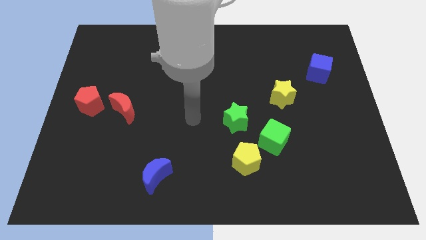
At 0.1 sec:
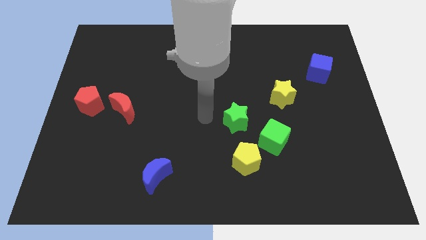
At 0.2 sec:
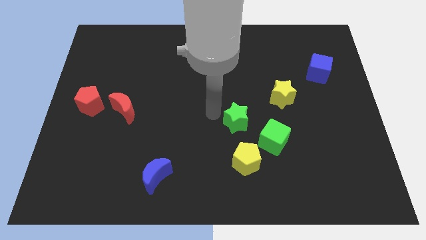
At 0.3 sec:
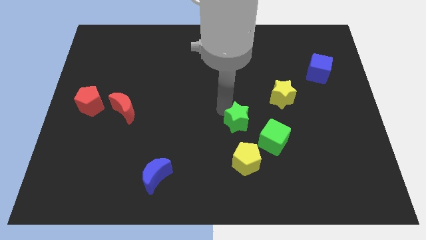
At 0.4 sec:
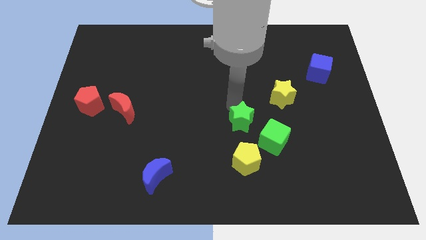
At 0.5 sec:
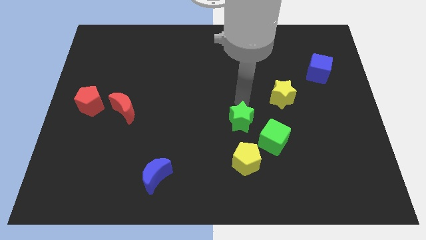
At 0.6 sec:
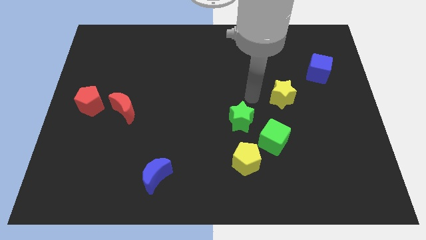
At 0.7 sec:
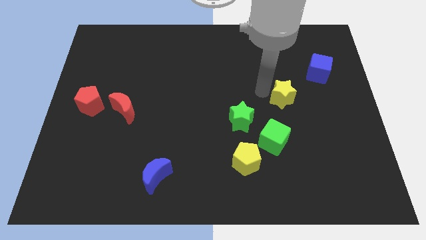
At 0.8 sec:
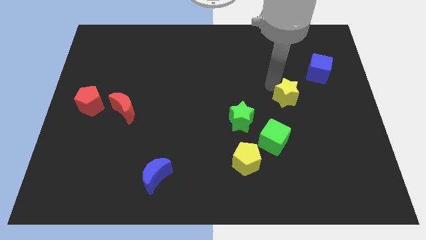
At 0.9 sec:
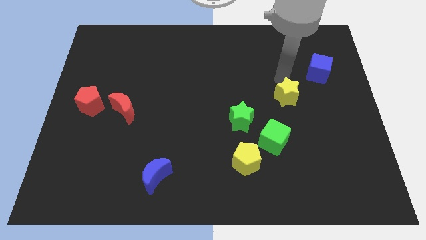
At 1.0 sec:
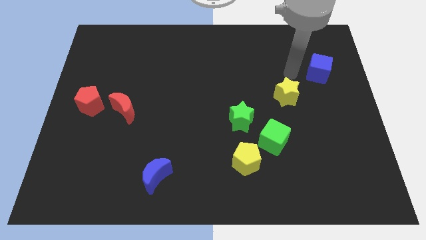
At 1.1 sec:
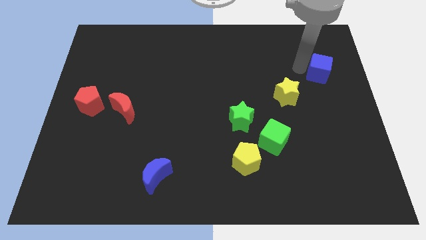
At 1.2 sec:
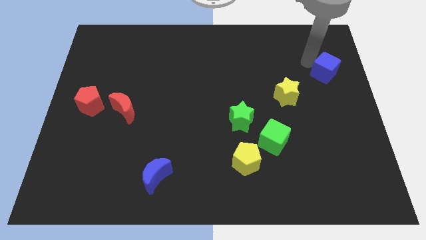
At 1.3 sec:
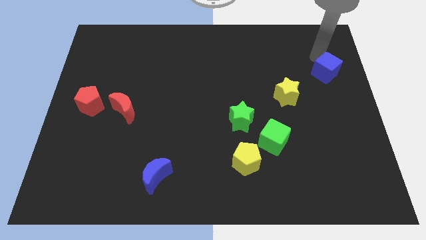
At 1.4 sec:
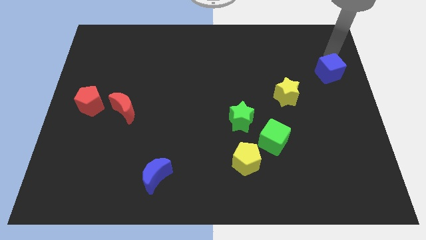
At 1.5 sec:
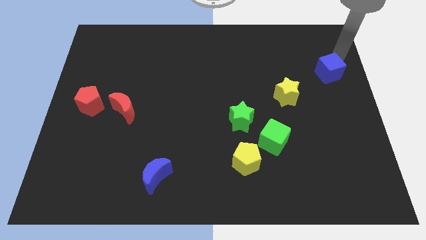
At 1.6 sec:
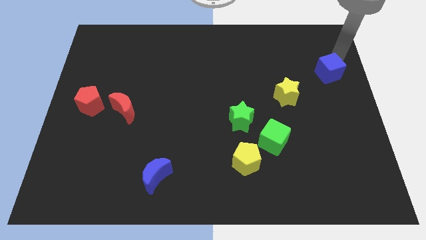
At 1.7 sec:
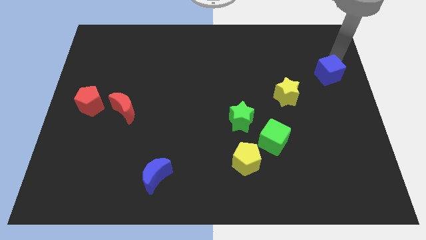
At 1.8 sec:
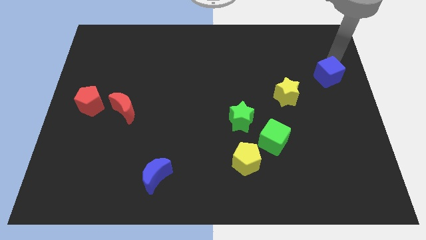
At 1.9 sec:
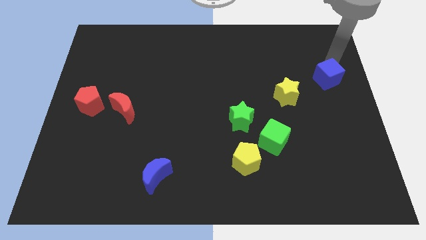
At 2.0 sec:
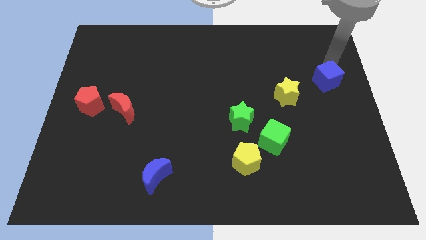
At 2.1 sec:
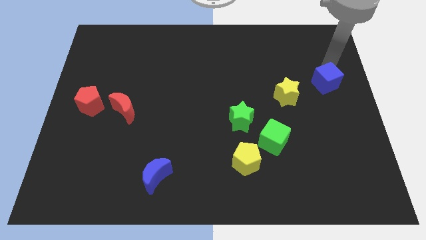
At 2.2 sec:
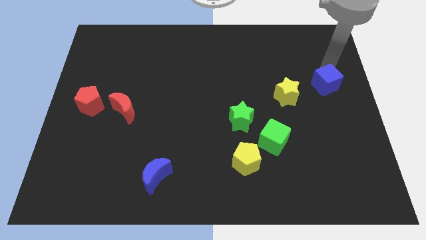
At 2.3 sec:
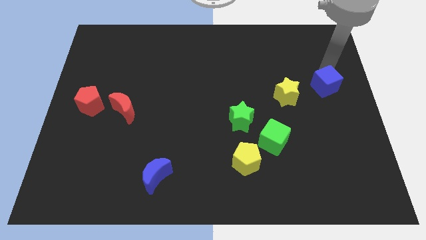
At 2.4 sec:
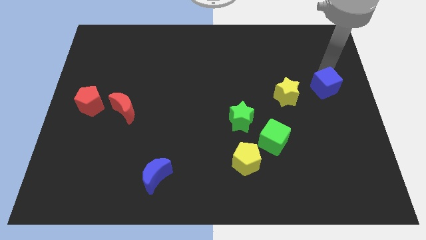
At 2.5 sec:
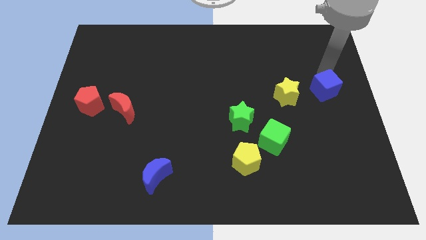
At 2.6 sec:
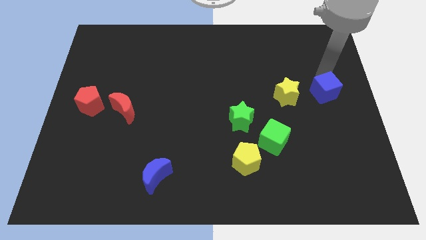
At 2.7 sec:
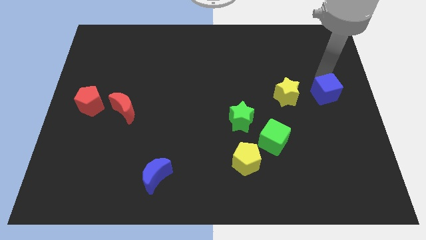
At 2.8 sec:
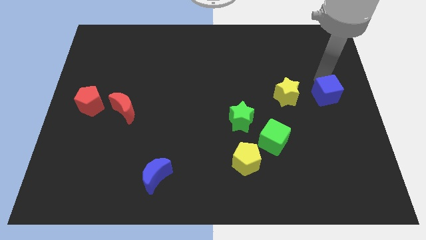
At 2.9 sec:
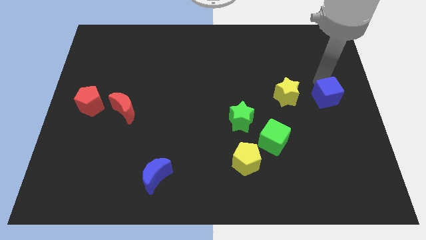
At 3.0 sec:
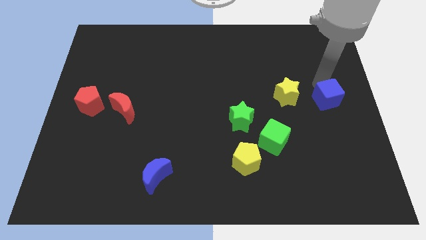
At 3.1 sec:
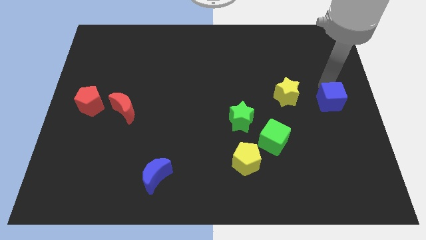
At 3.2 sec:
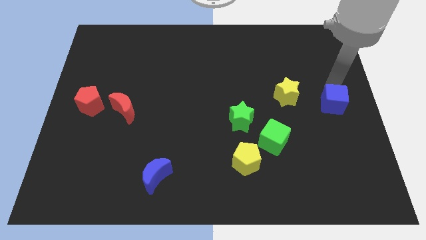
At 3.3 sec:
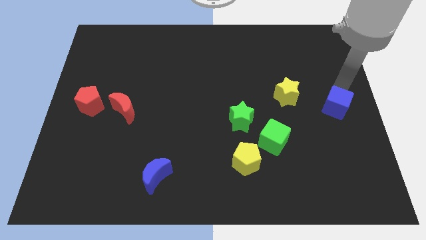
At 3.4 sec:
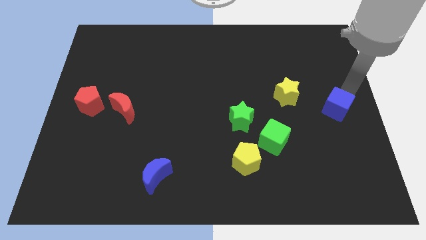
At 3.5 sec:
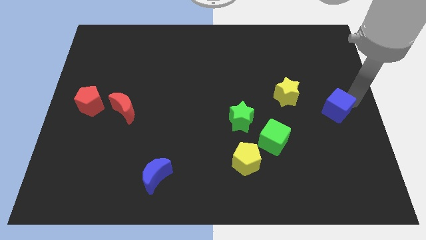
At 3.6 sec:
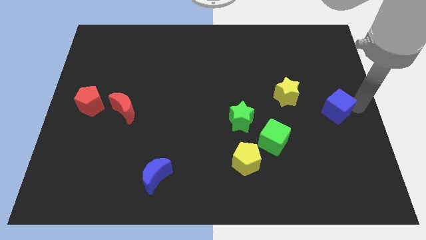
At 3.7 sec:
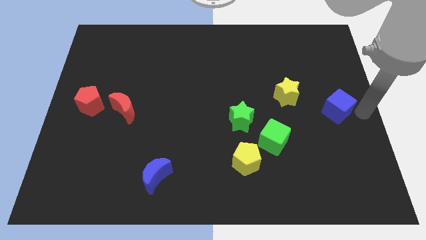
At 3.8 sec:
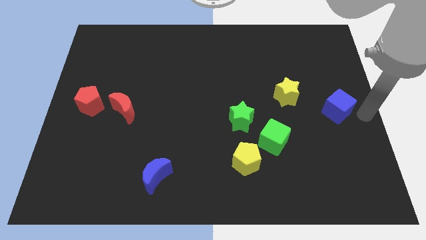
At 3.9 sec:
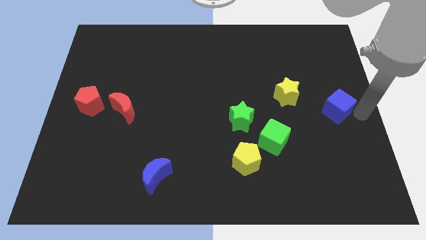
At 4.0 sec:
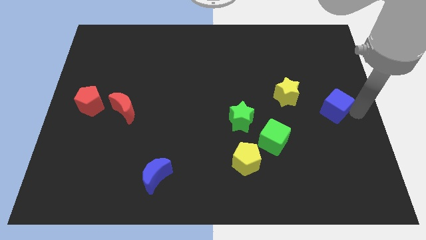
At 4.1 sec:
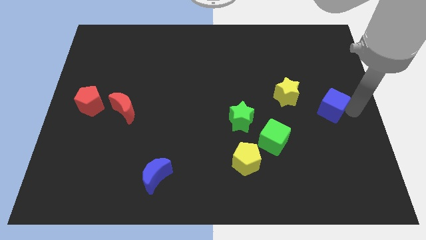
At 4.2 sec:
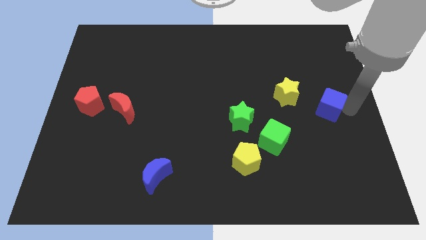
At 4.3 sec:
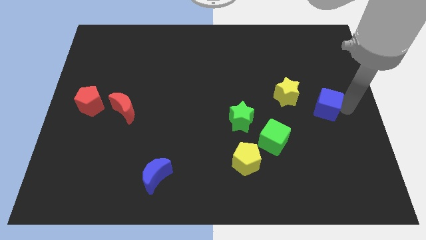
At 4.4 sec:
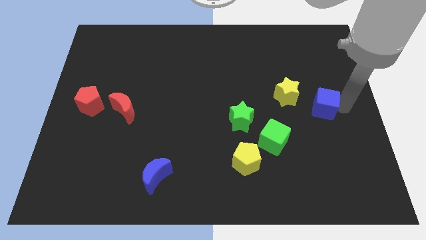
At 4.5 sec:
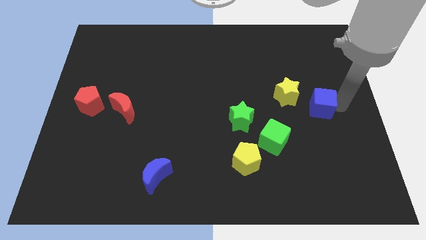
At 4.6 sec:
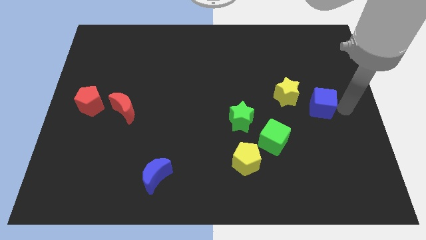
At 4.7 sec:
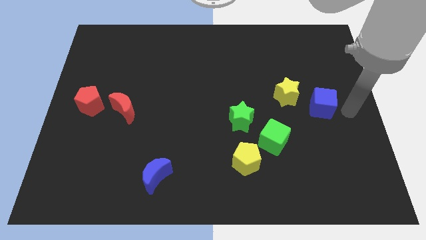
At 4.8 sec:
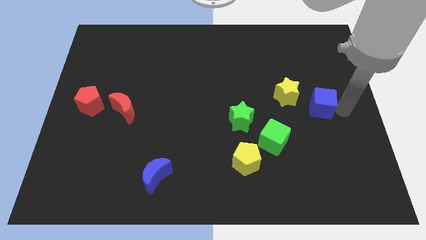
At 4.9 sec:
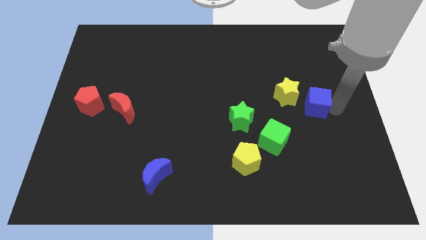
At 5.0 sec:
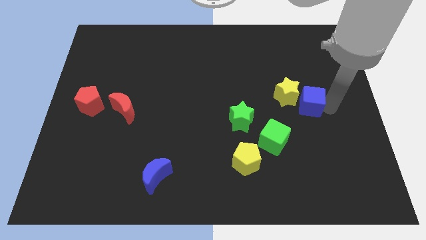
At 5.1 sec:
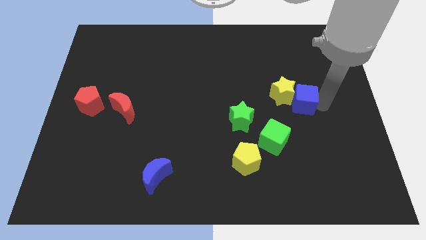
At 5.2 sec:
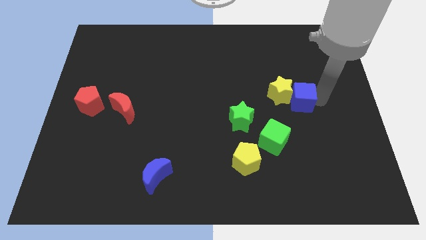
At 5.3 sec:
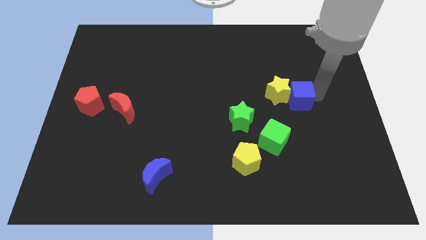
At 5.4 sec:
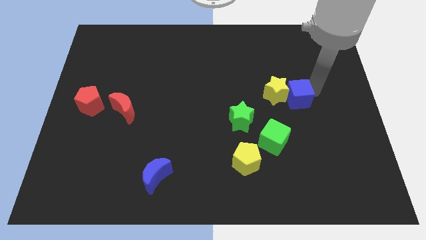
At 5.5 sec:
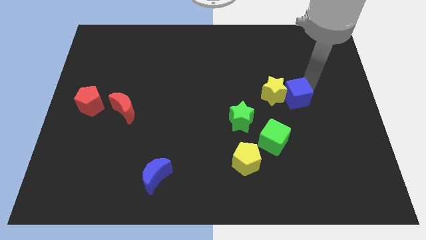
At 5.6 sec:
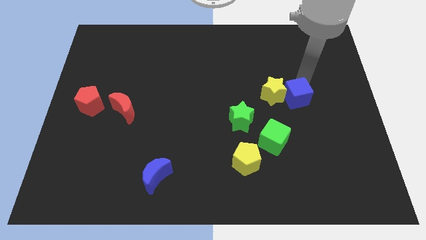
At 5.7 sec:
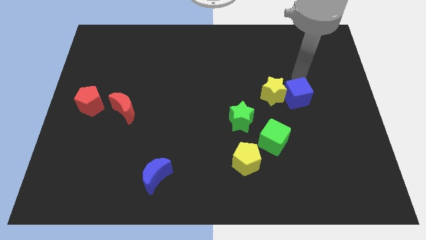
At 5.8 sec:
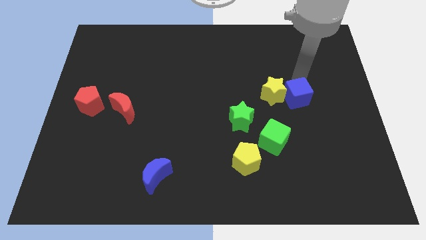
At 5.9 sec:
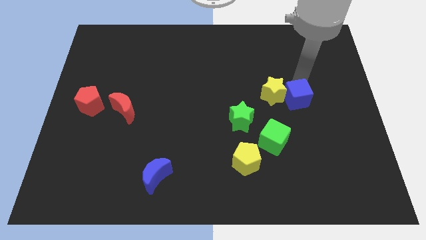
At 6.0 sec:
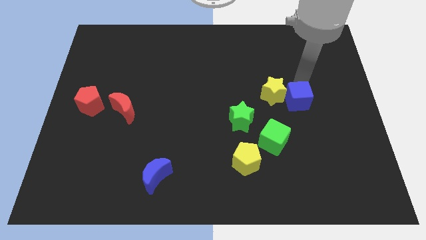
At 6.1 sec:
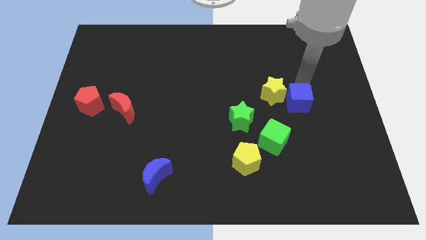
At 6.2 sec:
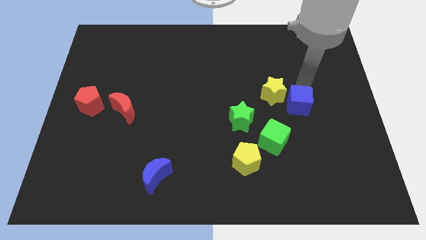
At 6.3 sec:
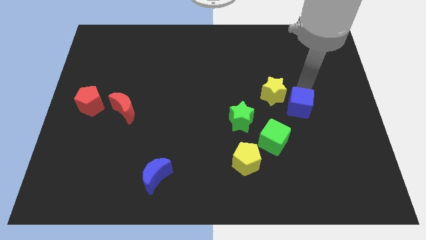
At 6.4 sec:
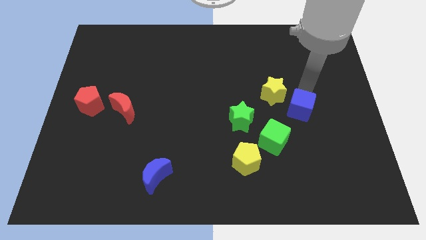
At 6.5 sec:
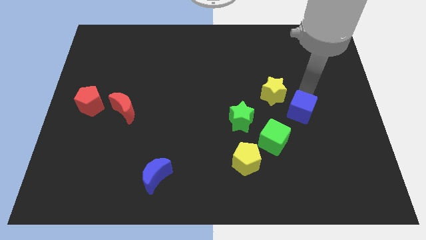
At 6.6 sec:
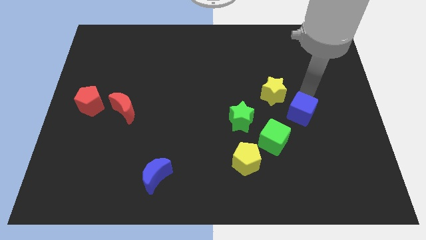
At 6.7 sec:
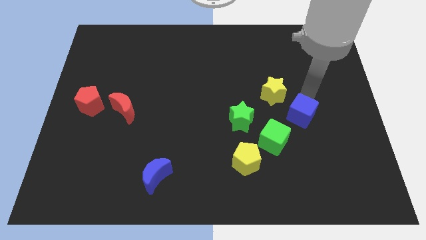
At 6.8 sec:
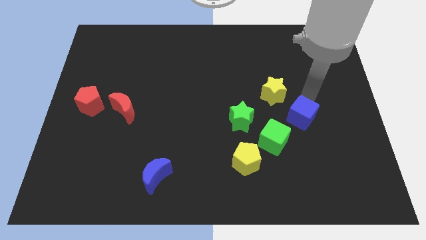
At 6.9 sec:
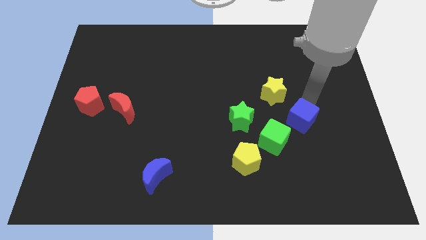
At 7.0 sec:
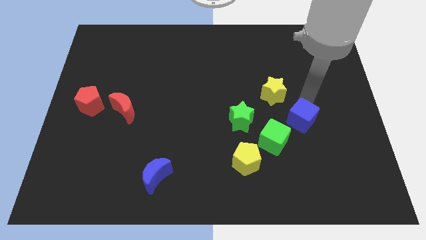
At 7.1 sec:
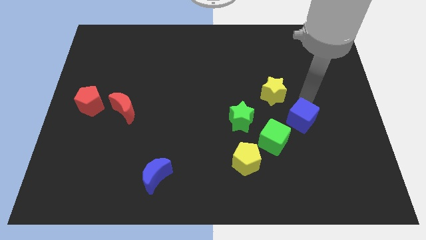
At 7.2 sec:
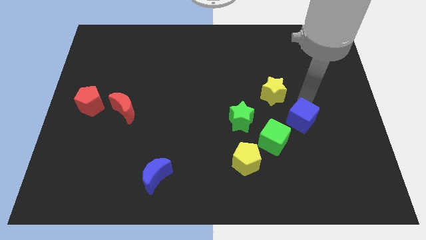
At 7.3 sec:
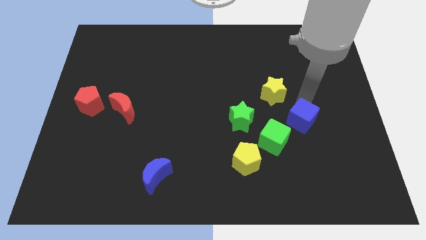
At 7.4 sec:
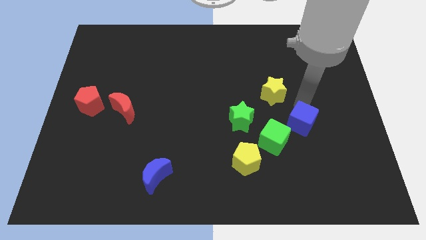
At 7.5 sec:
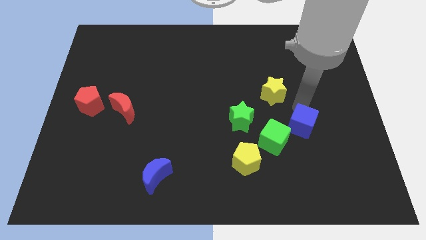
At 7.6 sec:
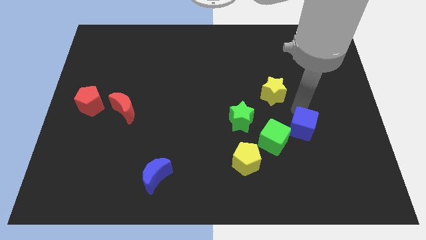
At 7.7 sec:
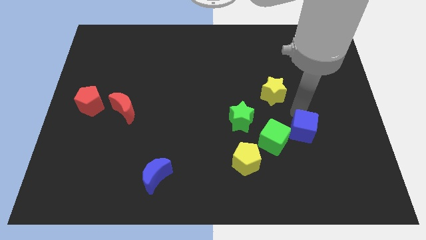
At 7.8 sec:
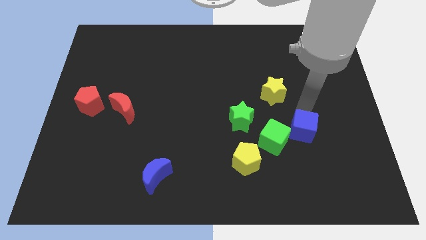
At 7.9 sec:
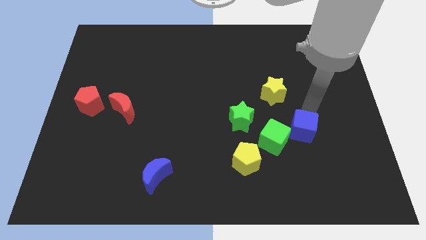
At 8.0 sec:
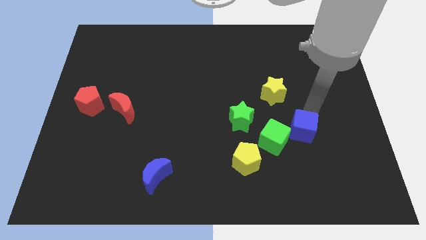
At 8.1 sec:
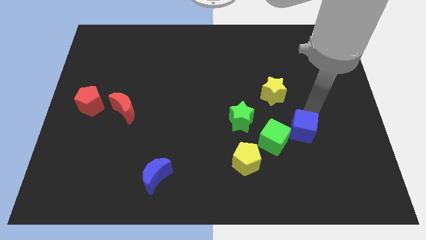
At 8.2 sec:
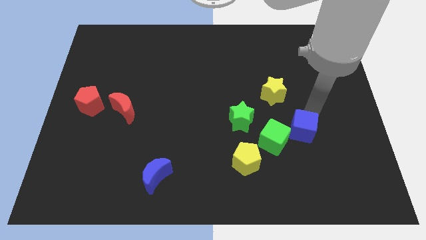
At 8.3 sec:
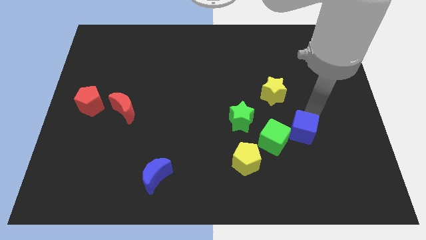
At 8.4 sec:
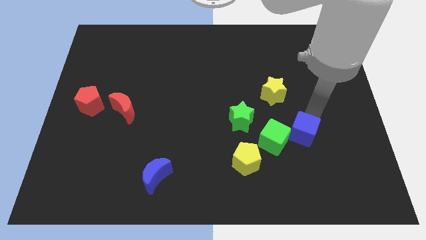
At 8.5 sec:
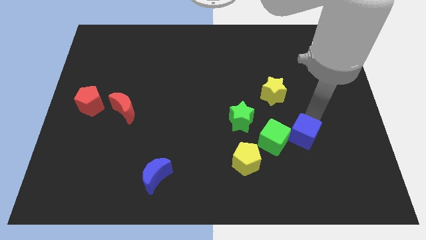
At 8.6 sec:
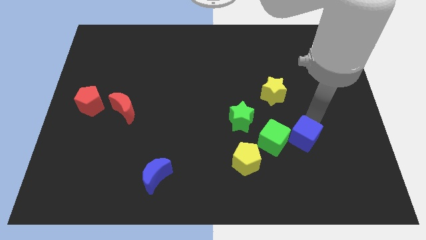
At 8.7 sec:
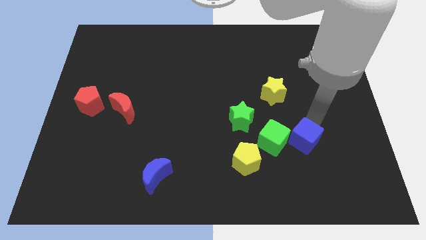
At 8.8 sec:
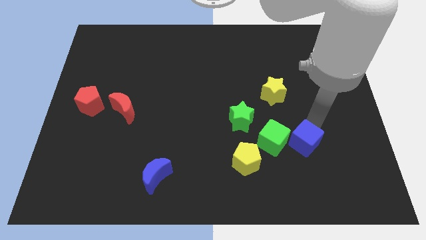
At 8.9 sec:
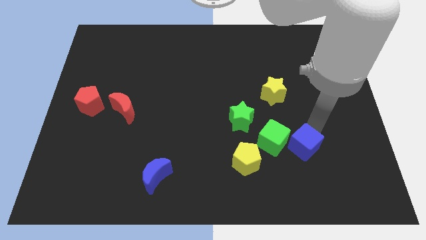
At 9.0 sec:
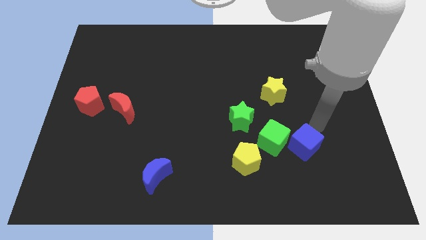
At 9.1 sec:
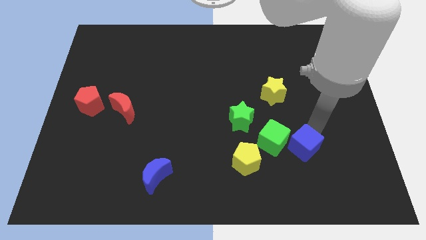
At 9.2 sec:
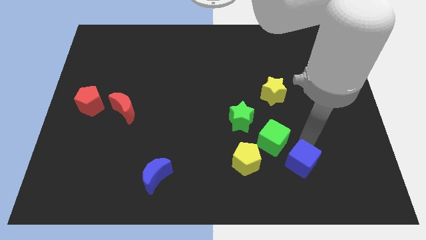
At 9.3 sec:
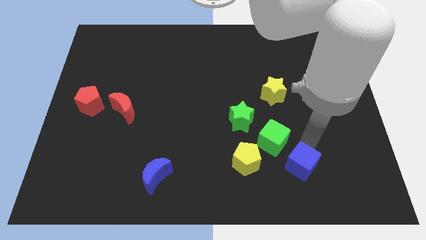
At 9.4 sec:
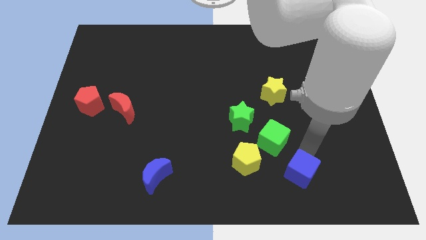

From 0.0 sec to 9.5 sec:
put the blue cube to the bottom side of the green cube
